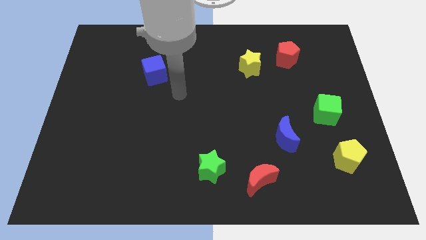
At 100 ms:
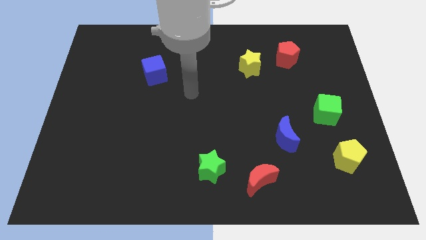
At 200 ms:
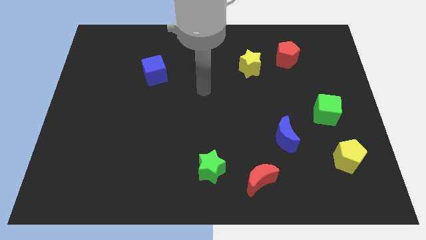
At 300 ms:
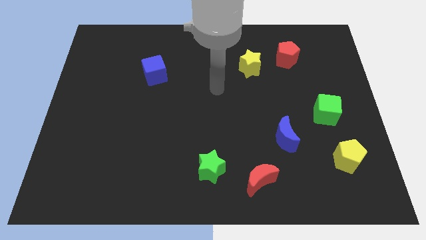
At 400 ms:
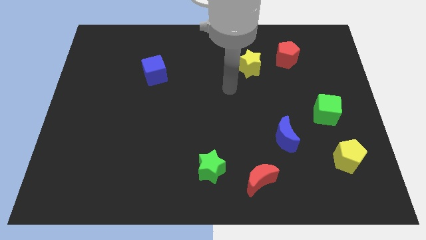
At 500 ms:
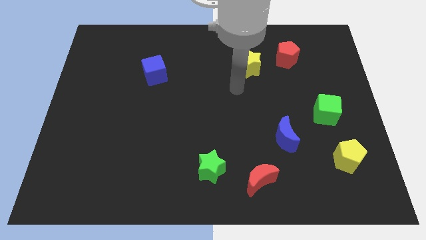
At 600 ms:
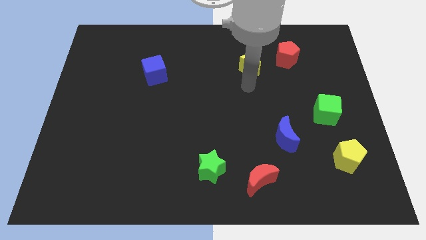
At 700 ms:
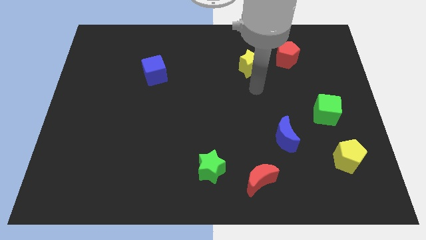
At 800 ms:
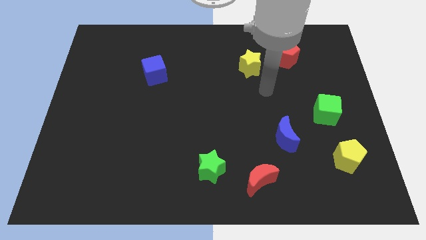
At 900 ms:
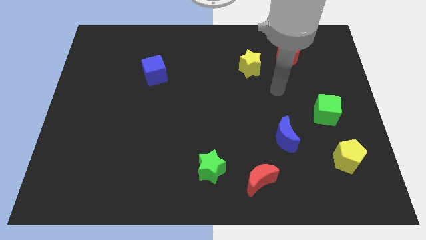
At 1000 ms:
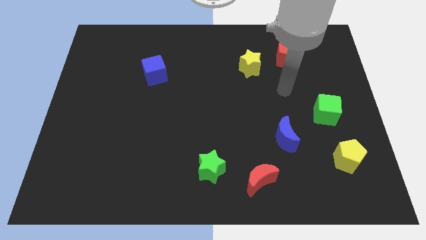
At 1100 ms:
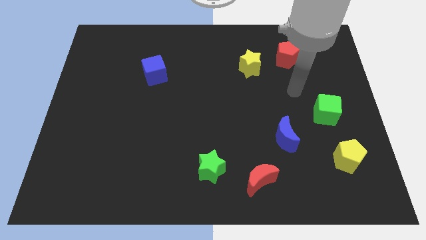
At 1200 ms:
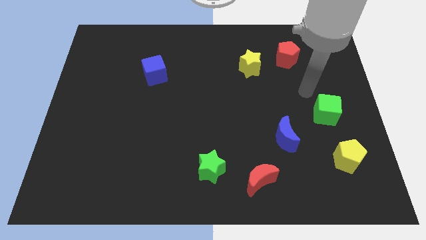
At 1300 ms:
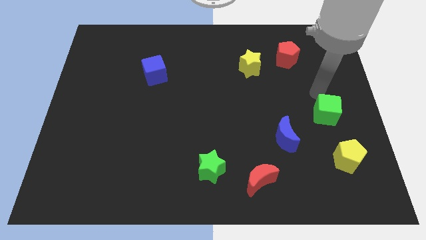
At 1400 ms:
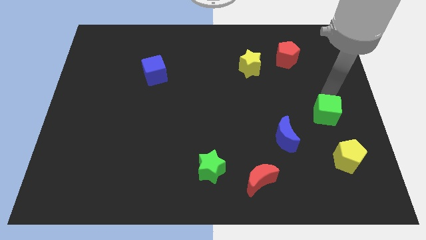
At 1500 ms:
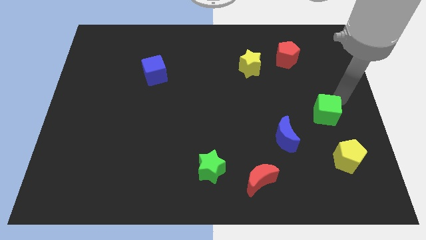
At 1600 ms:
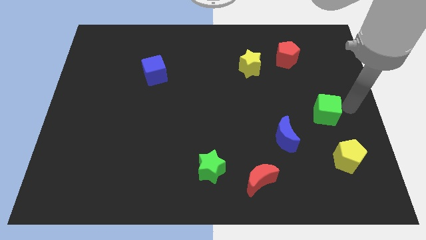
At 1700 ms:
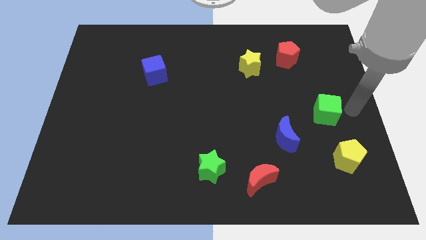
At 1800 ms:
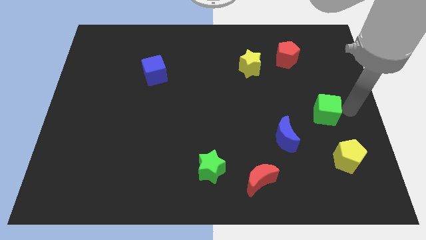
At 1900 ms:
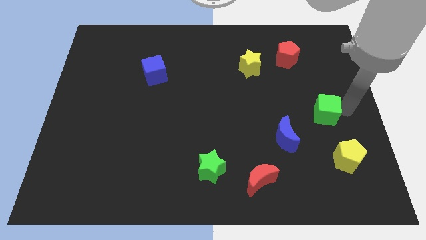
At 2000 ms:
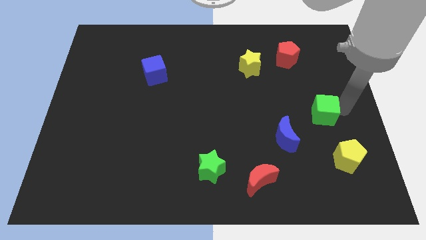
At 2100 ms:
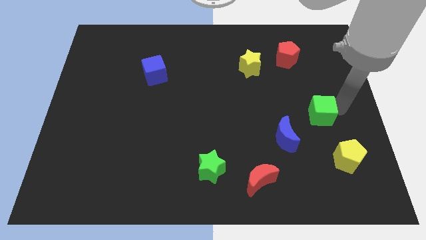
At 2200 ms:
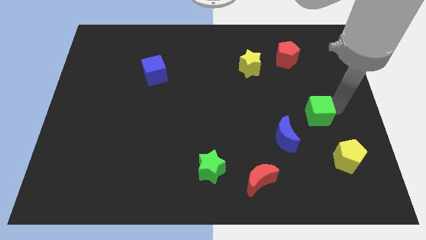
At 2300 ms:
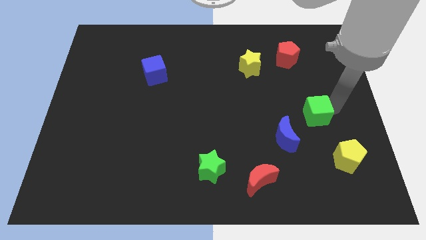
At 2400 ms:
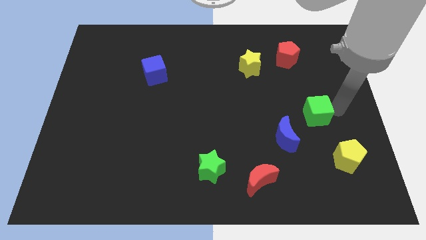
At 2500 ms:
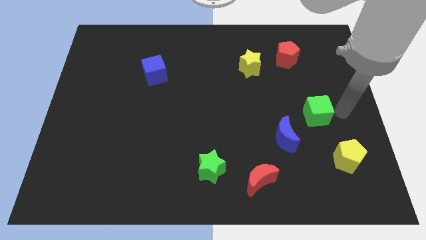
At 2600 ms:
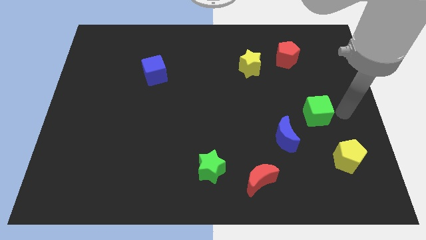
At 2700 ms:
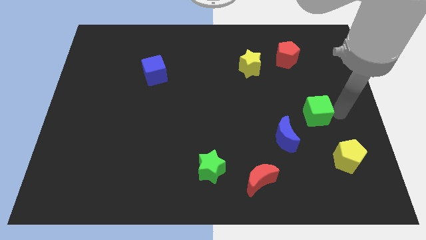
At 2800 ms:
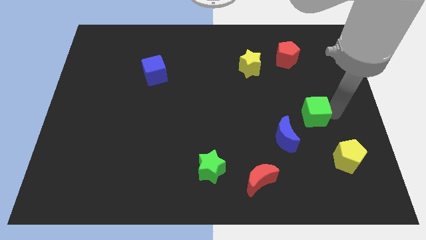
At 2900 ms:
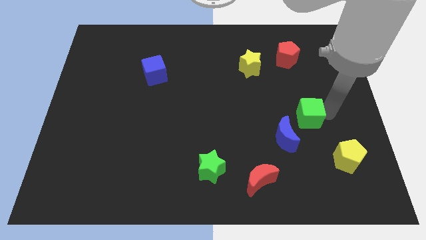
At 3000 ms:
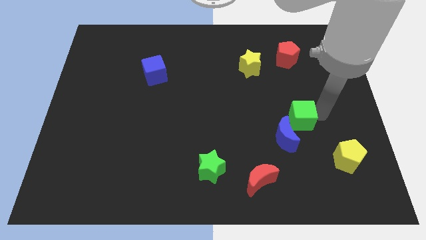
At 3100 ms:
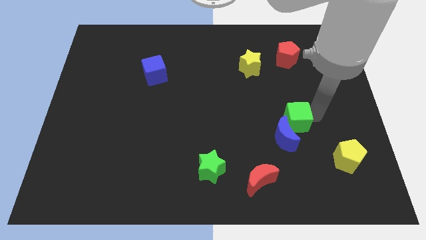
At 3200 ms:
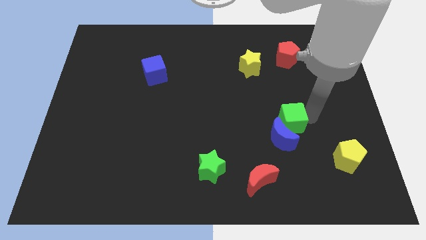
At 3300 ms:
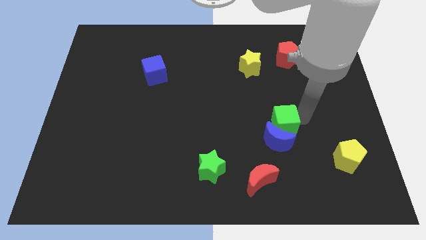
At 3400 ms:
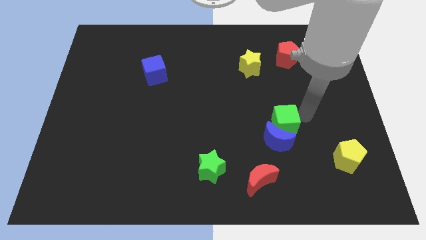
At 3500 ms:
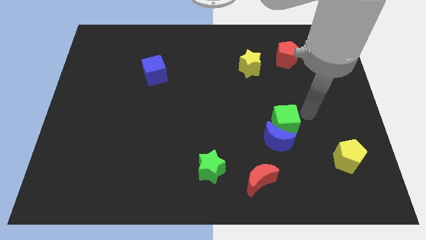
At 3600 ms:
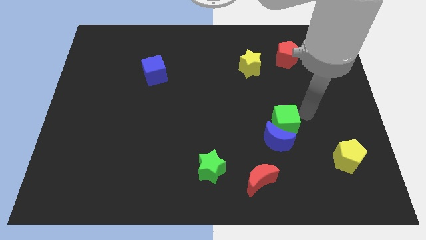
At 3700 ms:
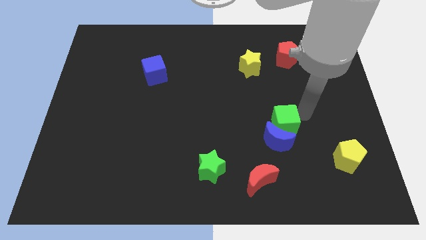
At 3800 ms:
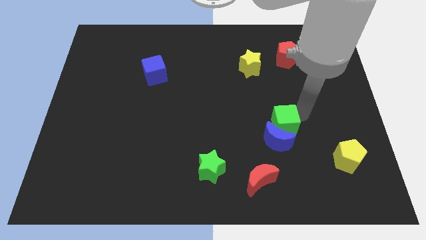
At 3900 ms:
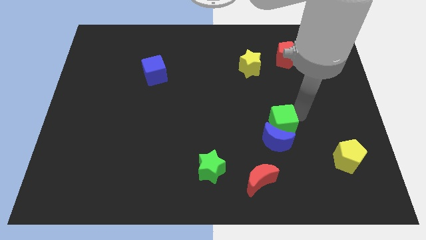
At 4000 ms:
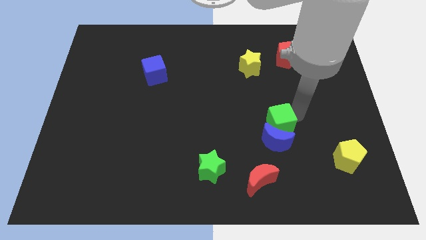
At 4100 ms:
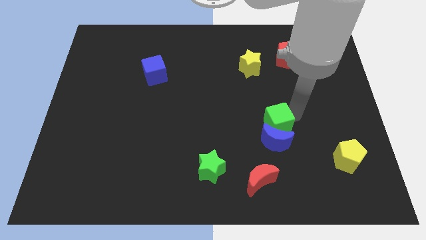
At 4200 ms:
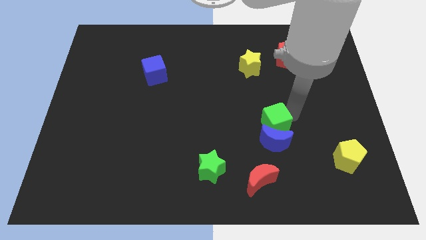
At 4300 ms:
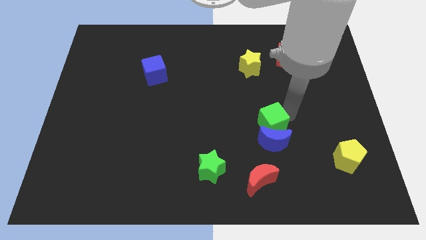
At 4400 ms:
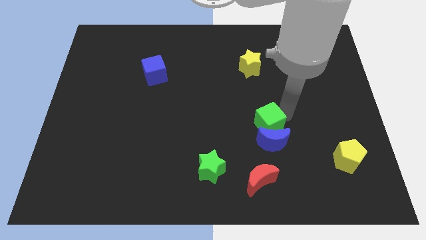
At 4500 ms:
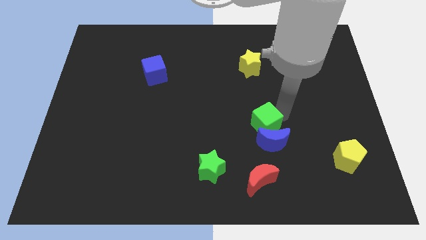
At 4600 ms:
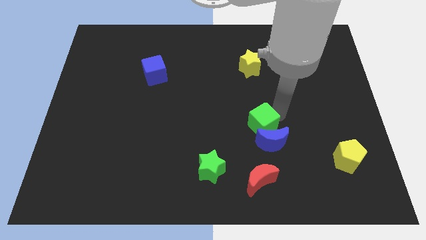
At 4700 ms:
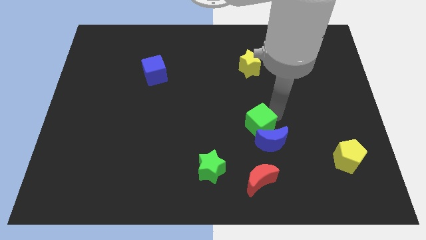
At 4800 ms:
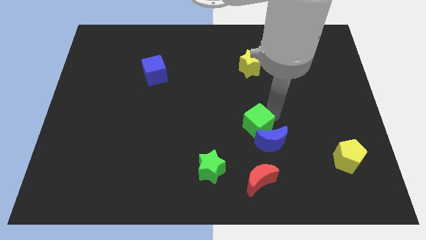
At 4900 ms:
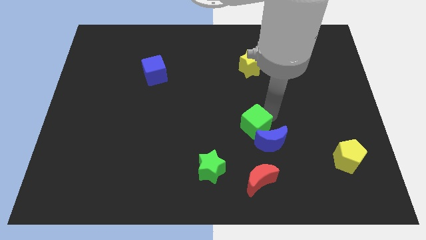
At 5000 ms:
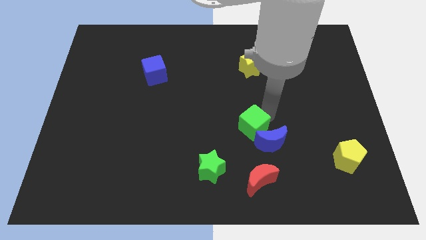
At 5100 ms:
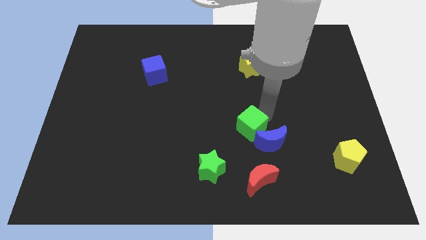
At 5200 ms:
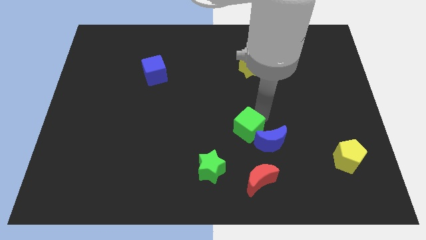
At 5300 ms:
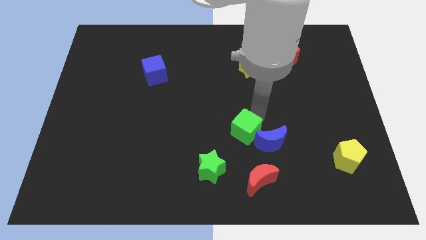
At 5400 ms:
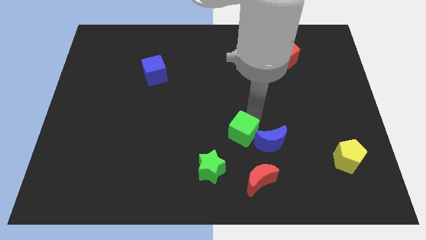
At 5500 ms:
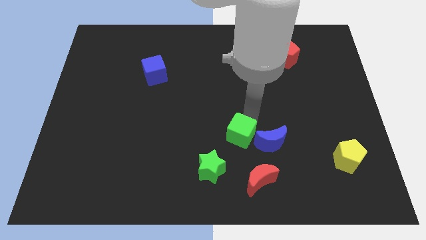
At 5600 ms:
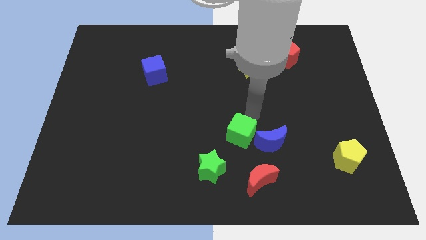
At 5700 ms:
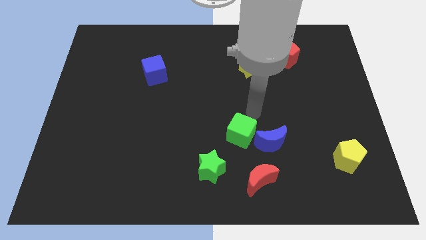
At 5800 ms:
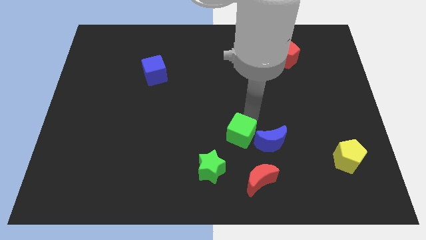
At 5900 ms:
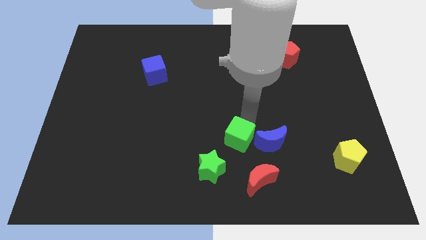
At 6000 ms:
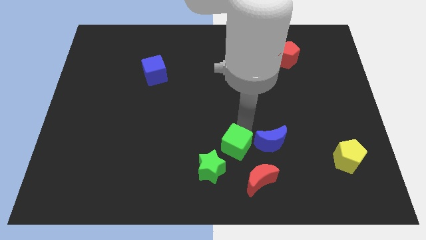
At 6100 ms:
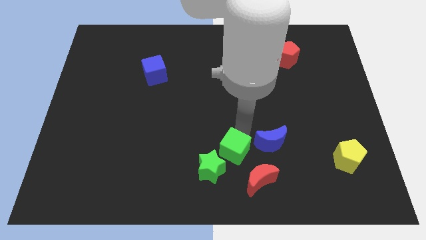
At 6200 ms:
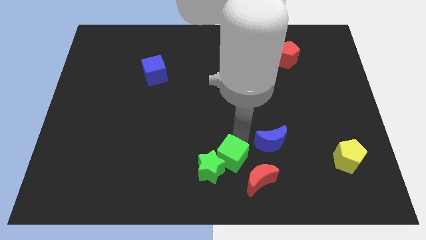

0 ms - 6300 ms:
slide the green cube to the green star
